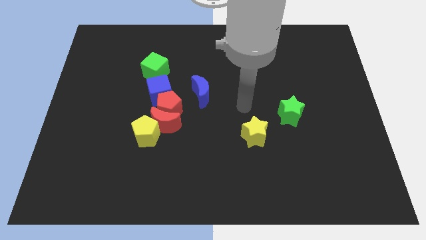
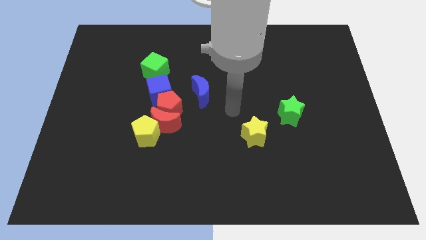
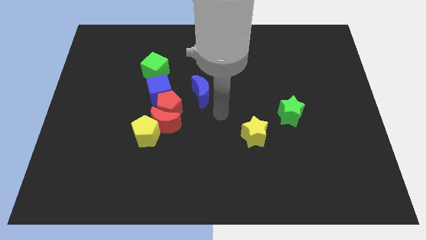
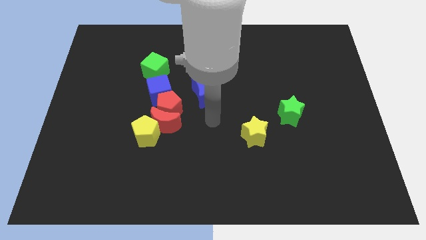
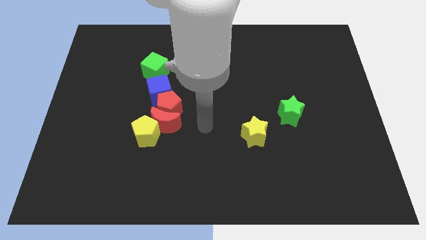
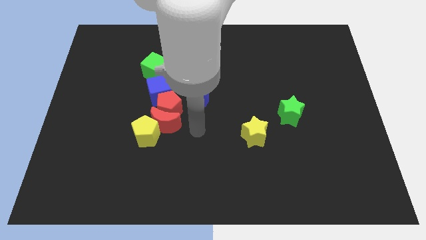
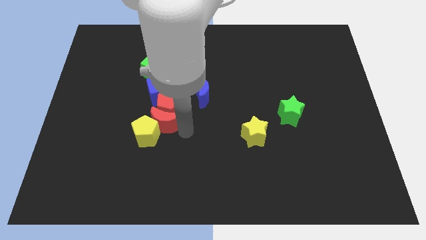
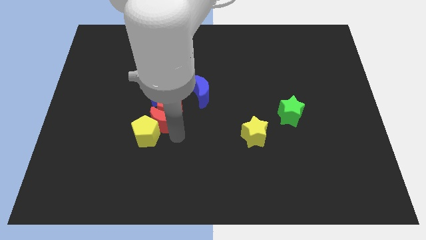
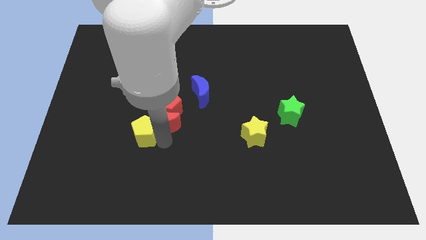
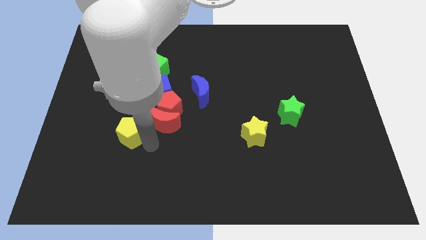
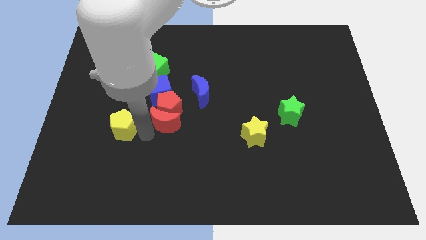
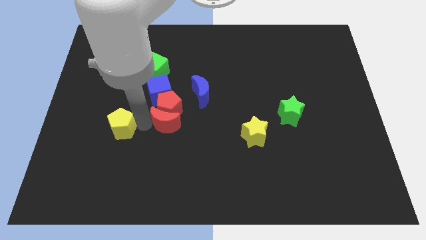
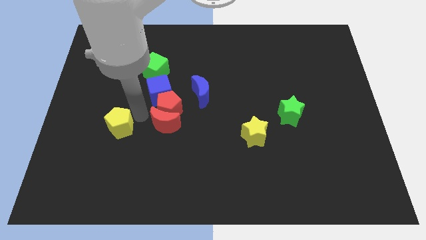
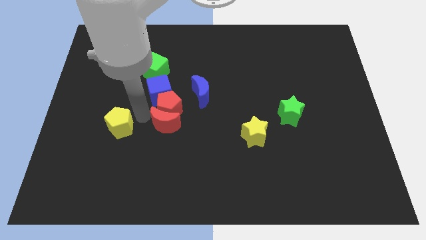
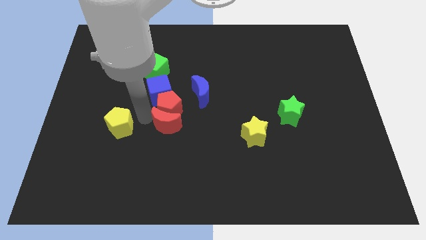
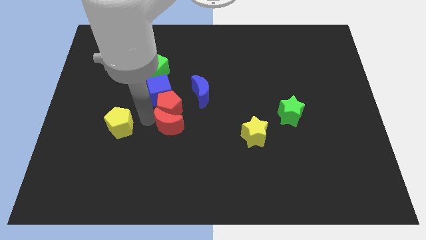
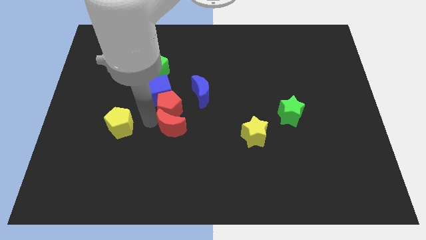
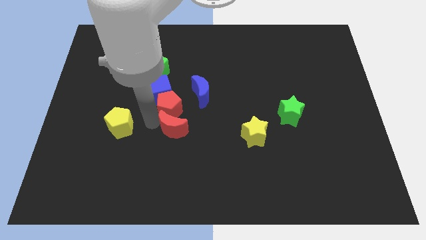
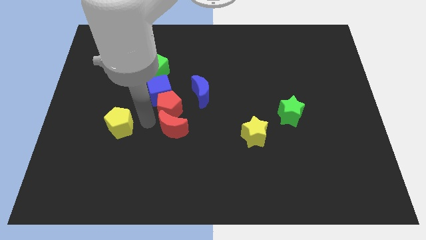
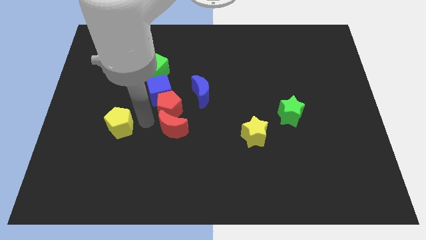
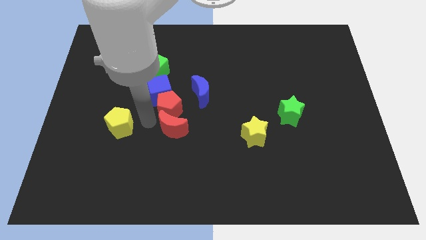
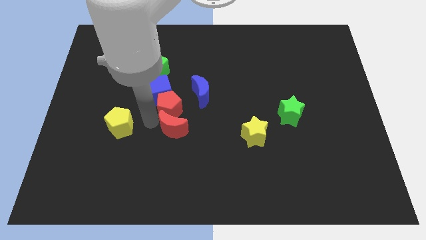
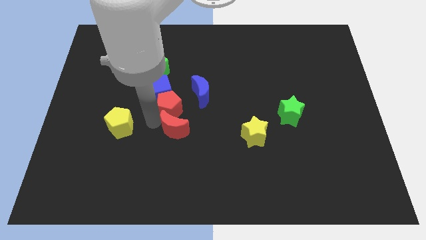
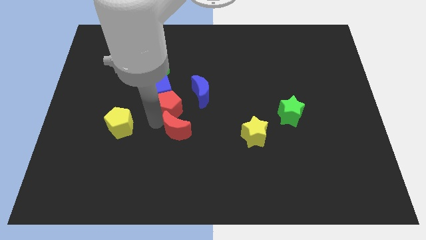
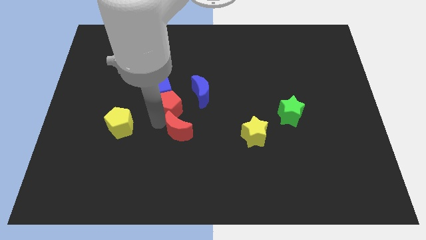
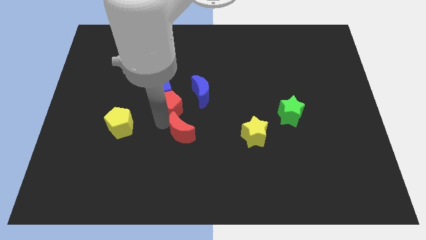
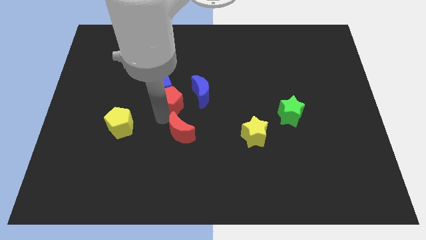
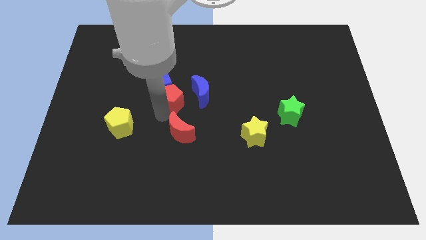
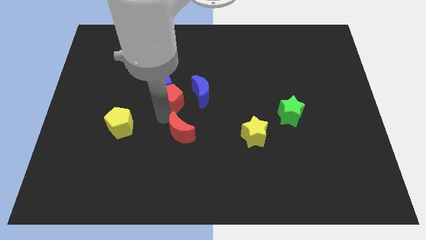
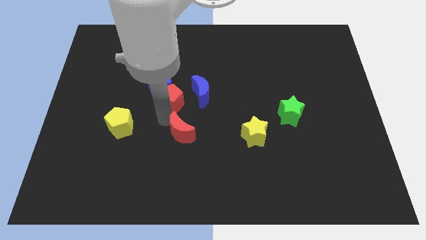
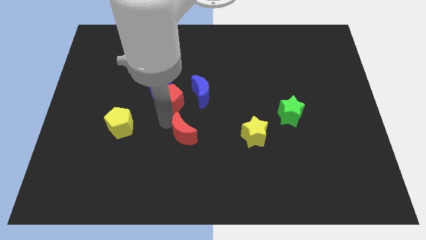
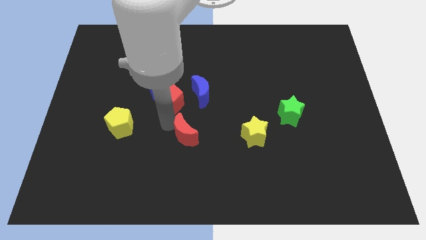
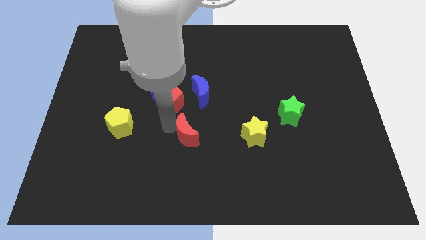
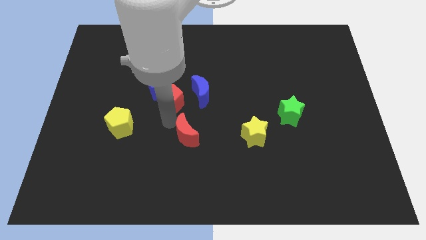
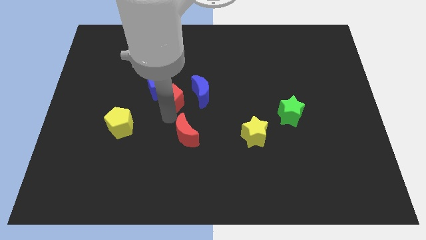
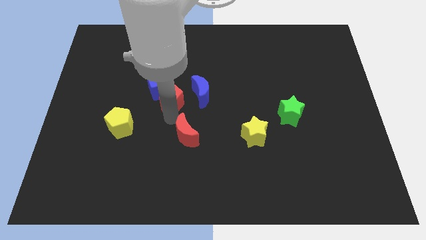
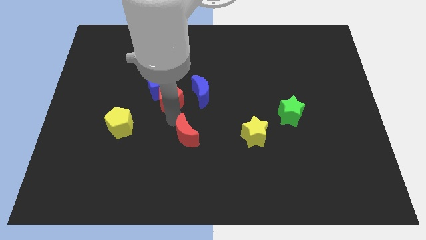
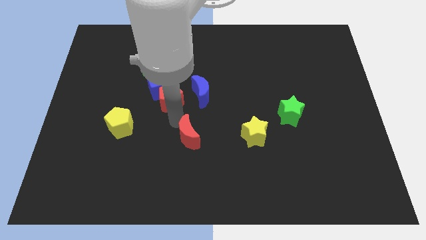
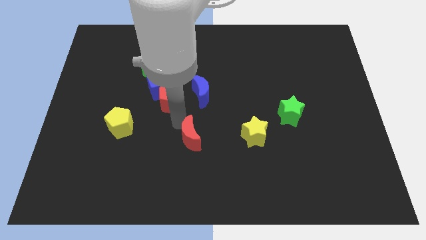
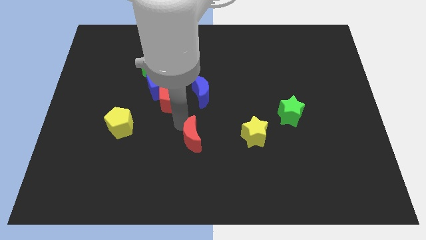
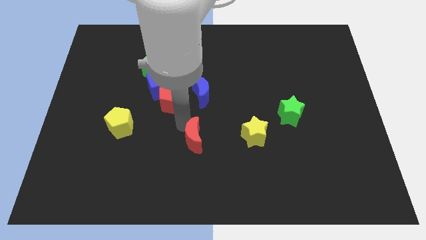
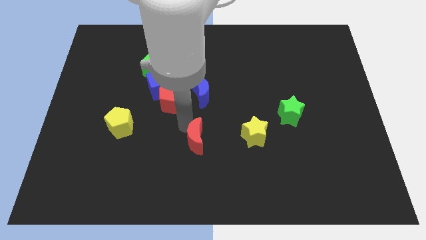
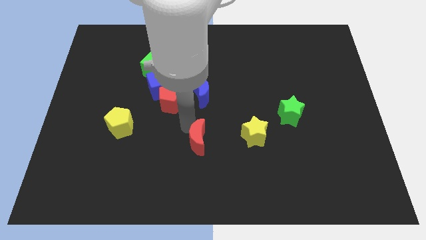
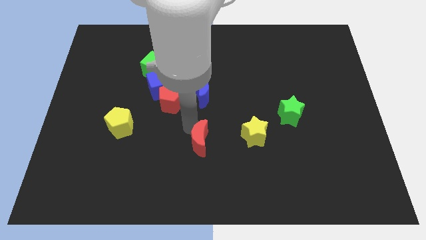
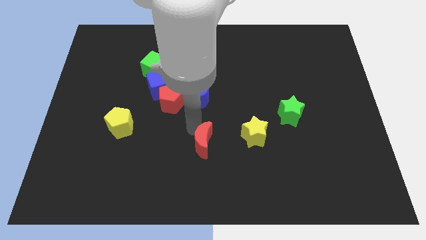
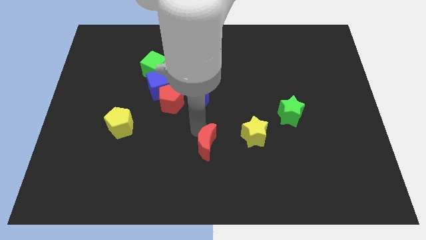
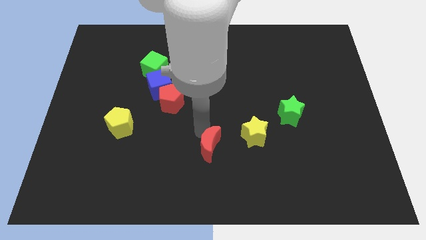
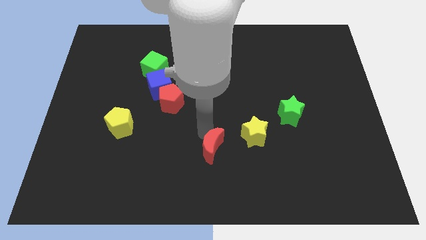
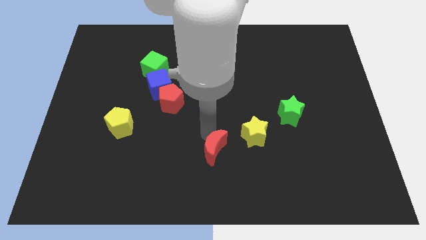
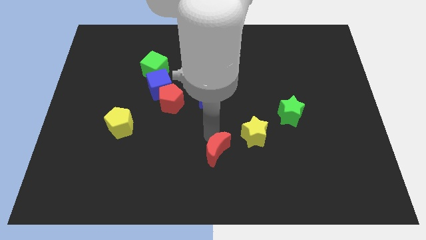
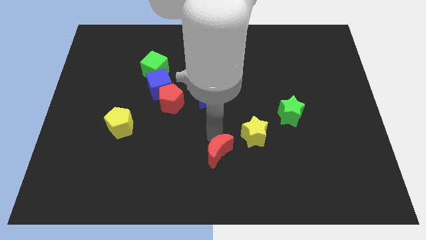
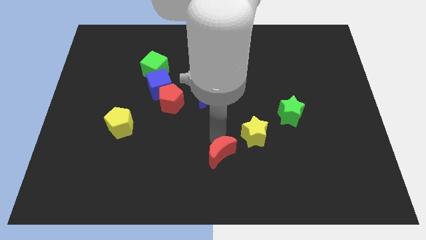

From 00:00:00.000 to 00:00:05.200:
slide the red moon to the bottom

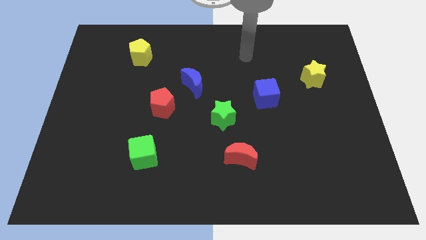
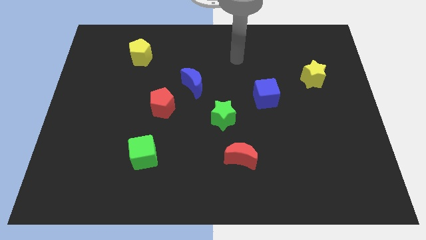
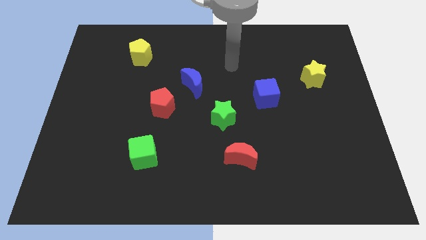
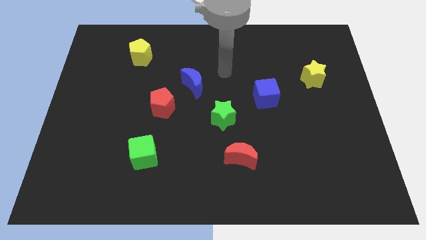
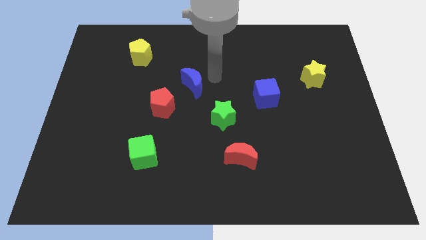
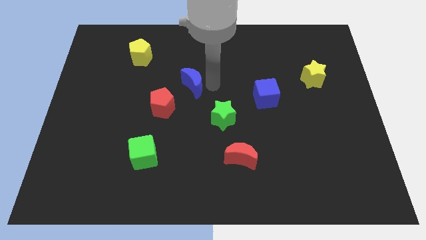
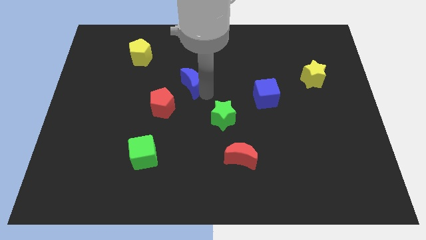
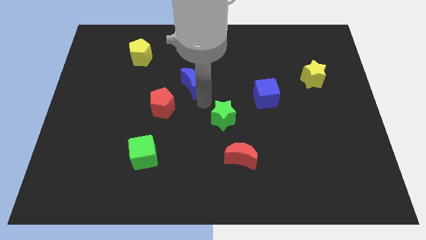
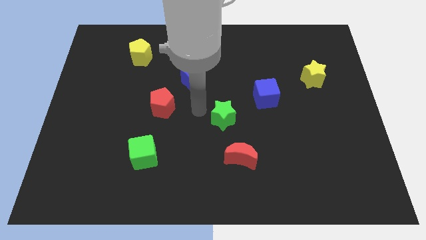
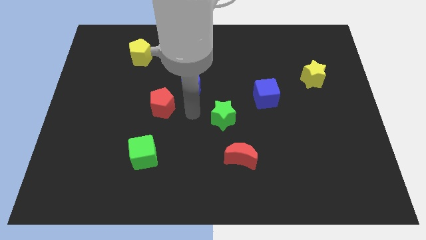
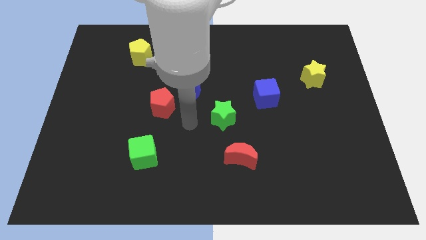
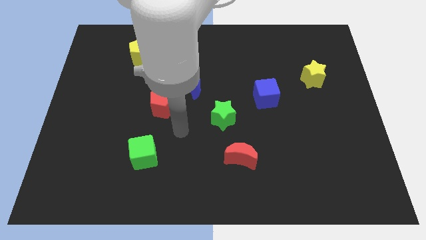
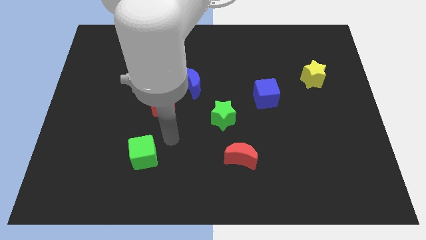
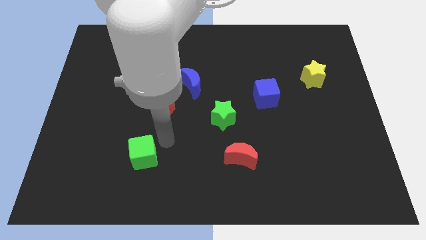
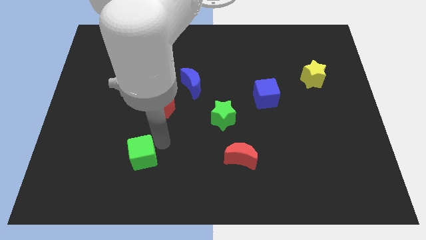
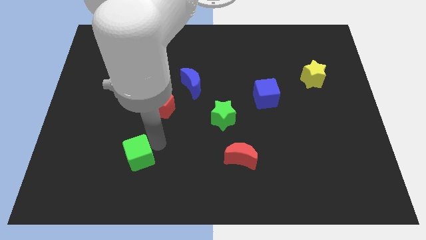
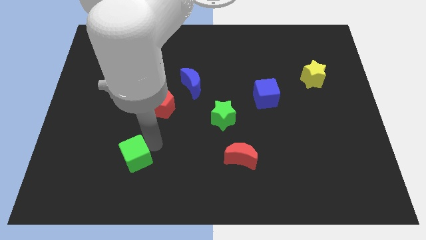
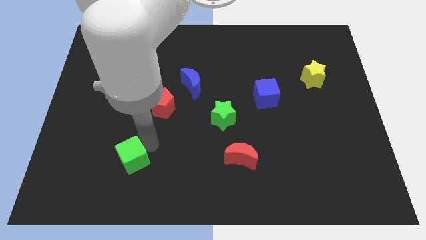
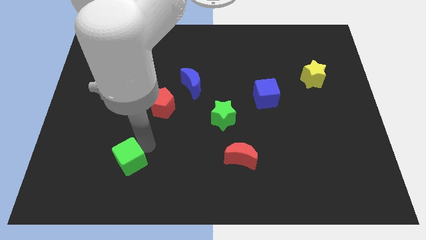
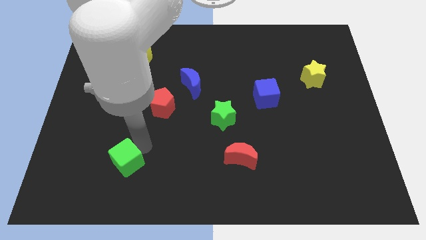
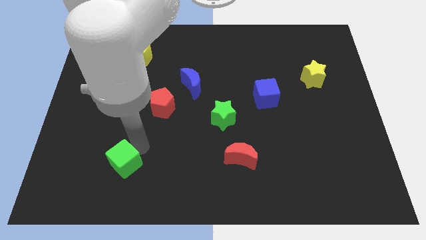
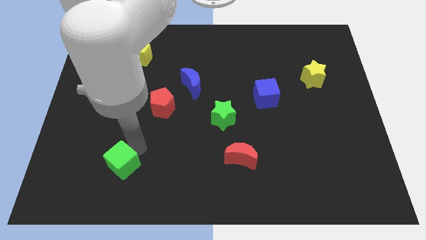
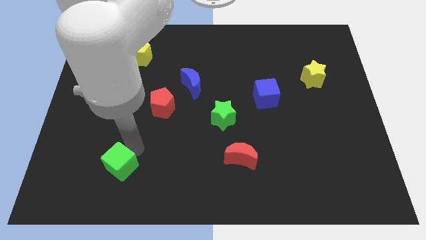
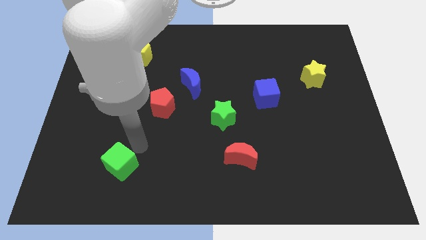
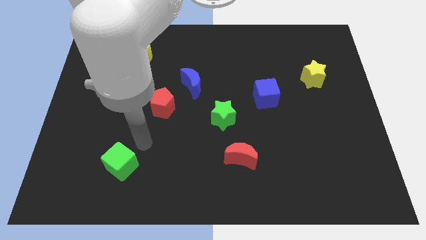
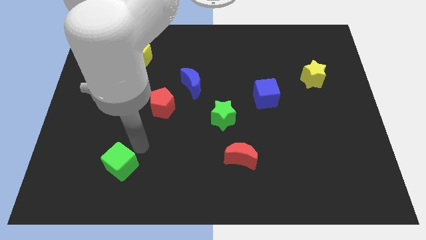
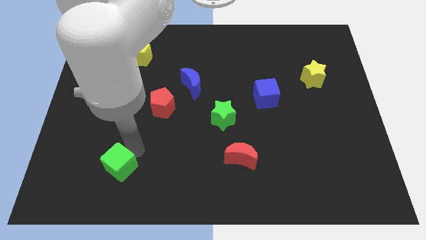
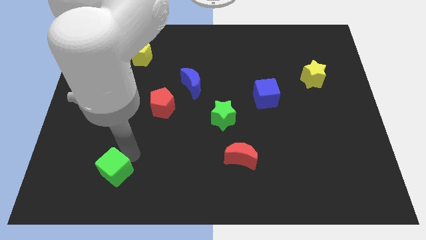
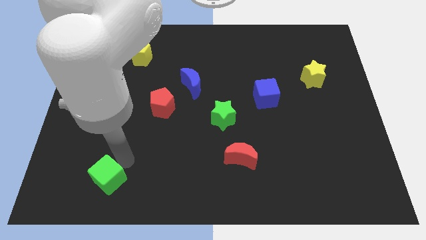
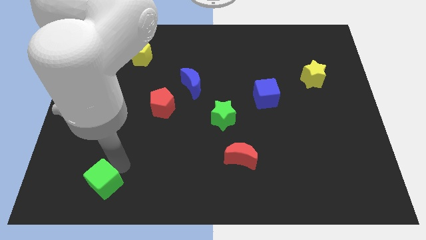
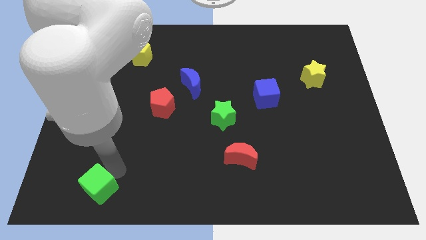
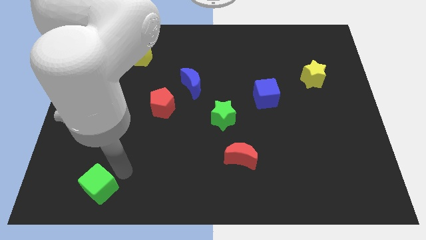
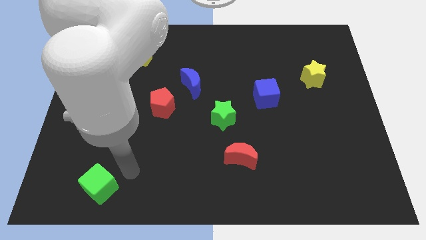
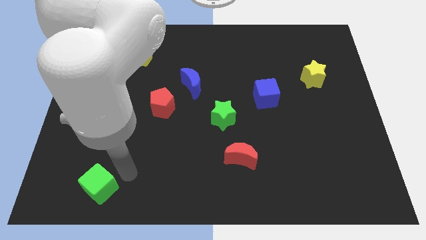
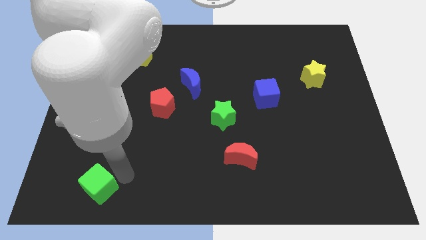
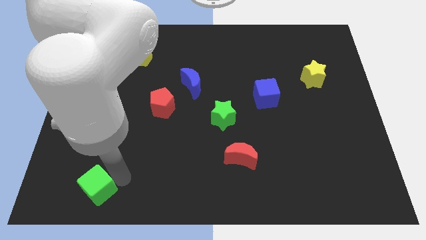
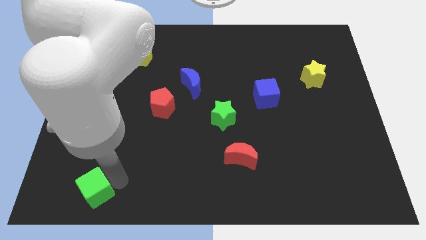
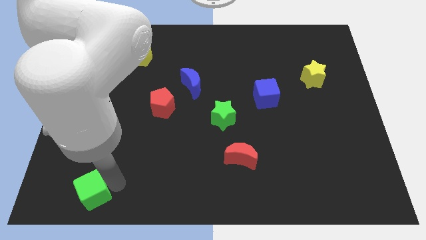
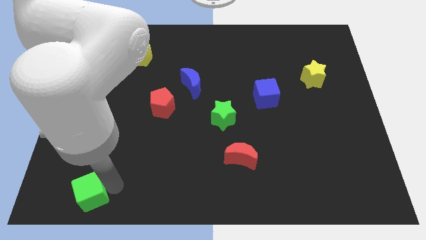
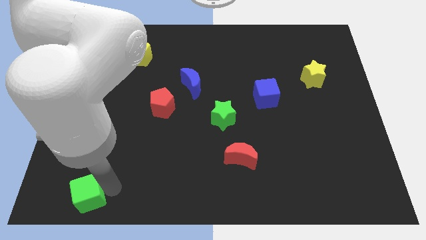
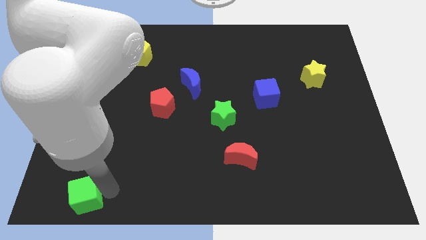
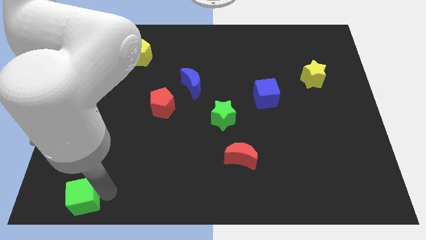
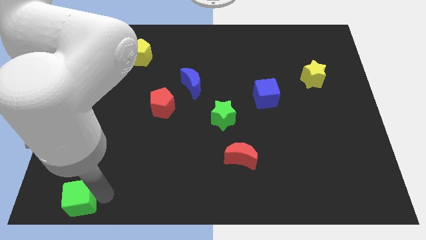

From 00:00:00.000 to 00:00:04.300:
put the green cube to the bottom left corner
